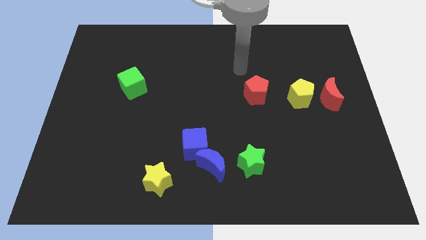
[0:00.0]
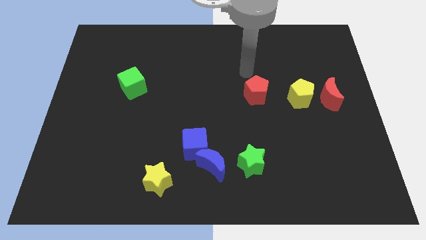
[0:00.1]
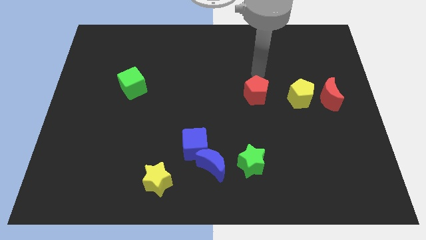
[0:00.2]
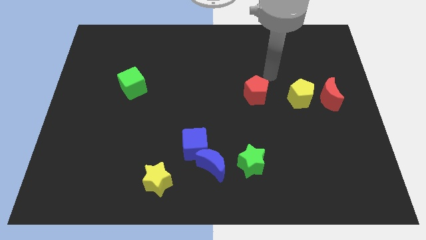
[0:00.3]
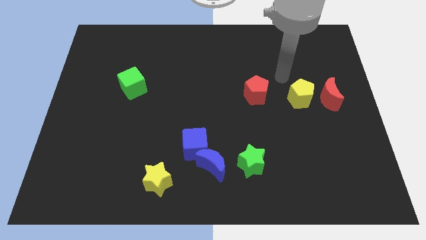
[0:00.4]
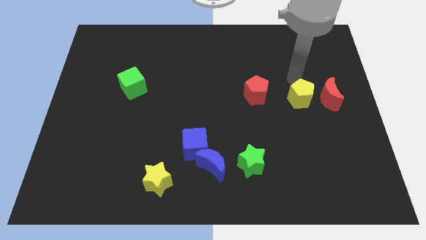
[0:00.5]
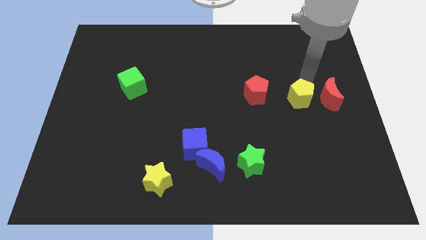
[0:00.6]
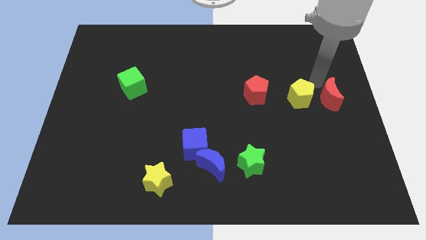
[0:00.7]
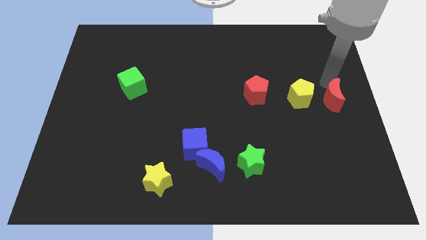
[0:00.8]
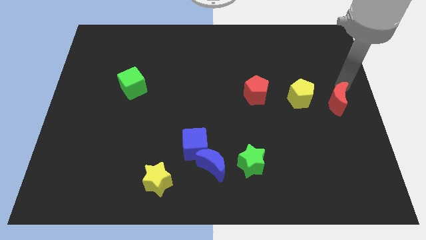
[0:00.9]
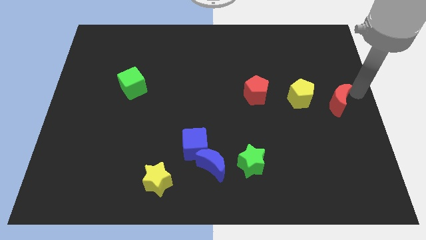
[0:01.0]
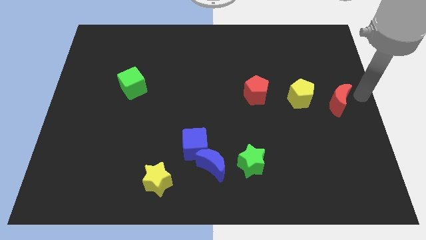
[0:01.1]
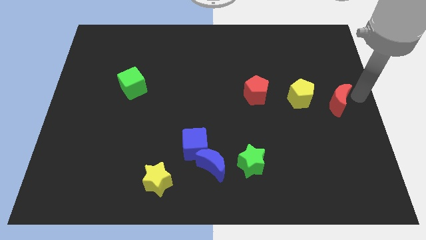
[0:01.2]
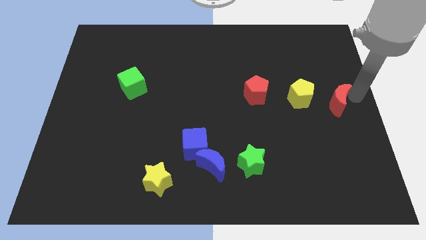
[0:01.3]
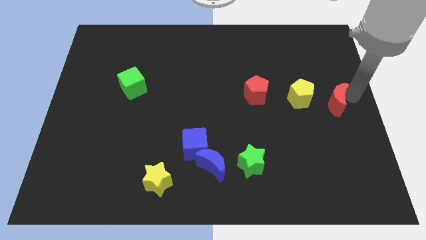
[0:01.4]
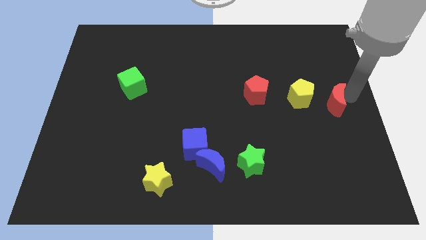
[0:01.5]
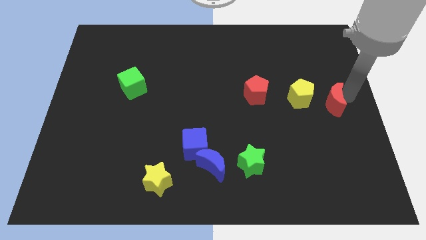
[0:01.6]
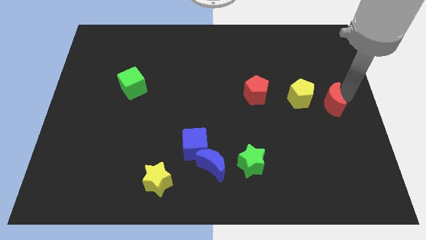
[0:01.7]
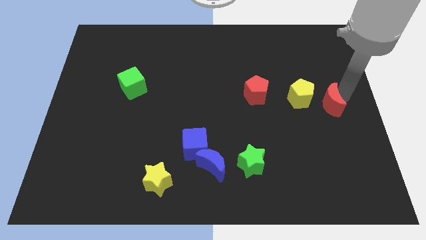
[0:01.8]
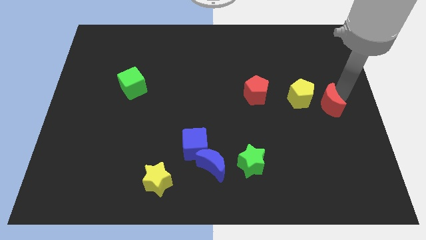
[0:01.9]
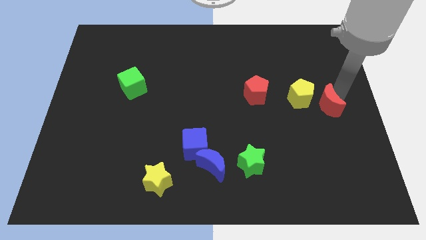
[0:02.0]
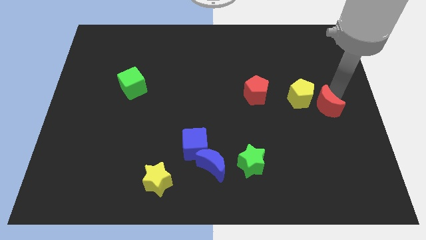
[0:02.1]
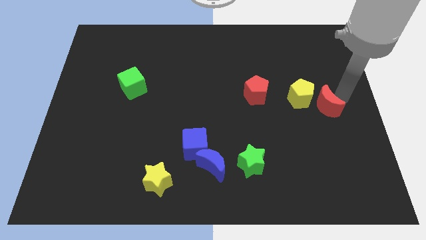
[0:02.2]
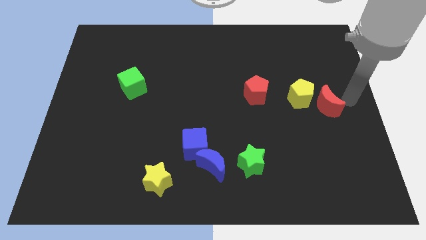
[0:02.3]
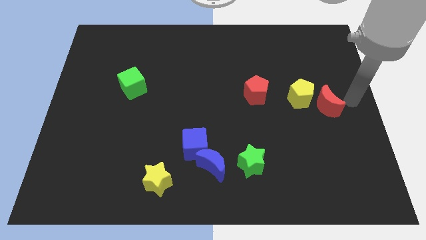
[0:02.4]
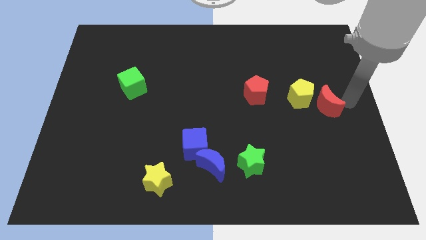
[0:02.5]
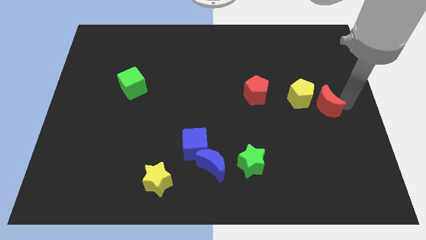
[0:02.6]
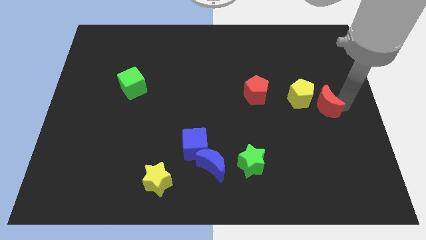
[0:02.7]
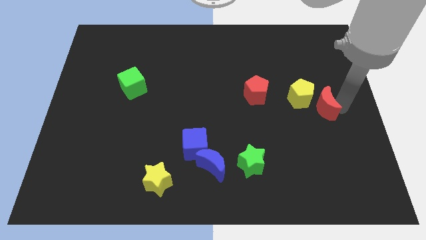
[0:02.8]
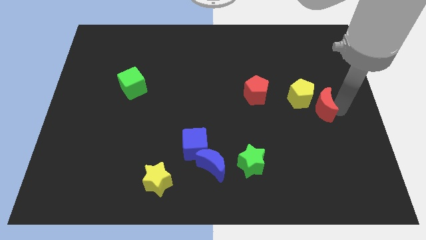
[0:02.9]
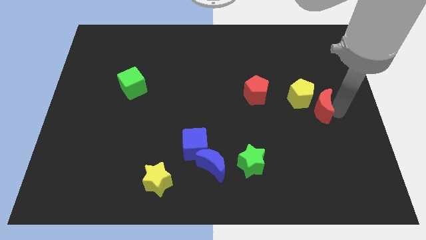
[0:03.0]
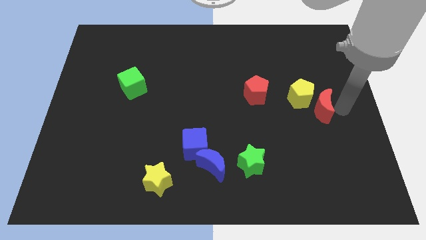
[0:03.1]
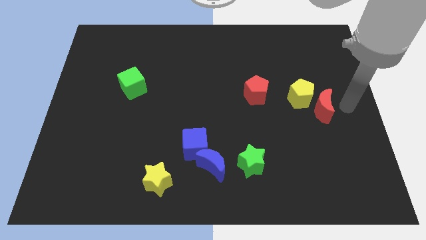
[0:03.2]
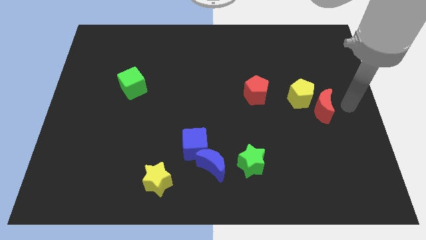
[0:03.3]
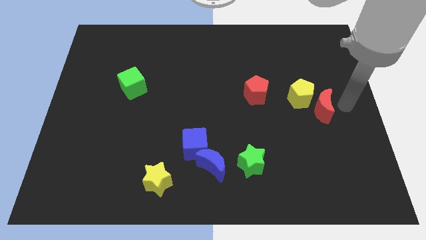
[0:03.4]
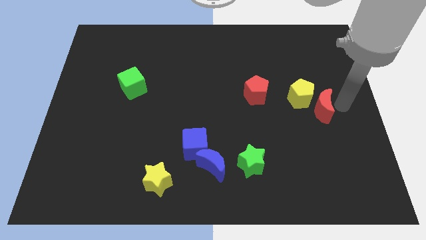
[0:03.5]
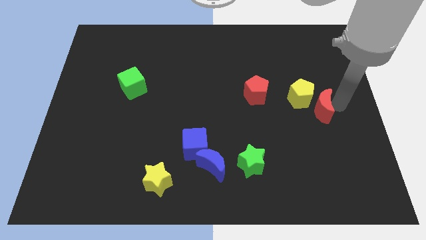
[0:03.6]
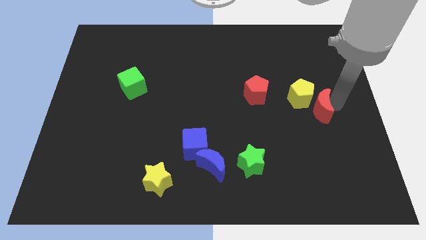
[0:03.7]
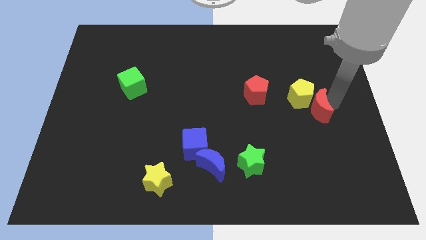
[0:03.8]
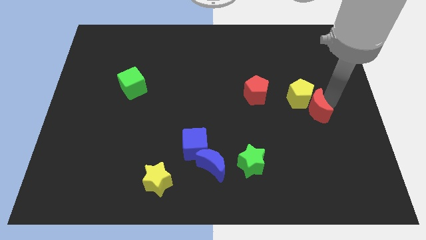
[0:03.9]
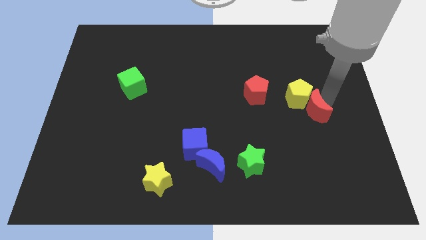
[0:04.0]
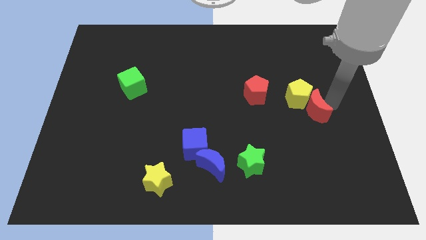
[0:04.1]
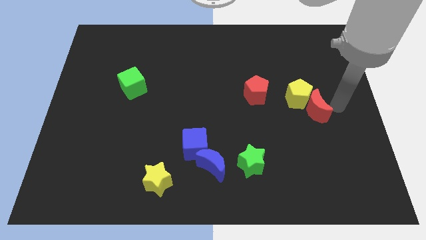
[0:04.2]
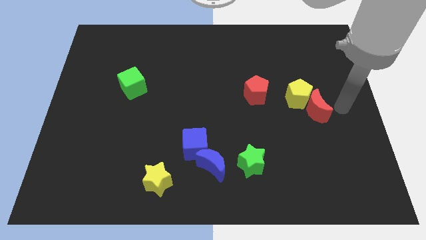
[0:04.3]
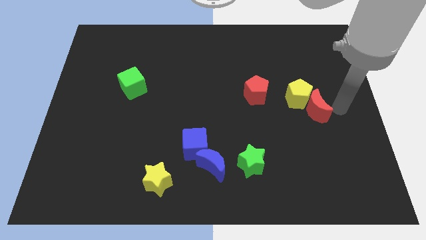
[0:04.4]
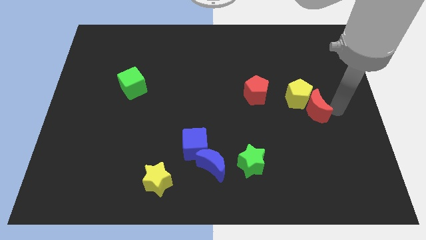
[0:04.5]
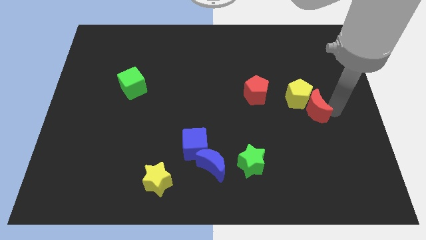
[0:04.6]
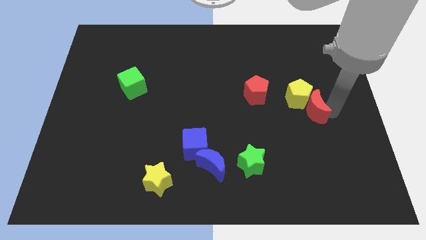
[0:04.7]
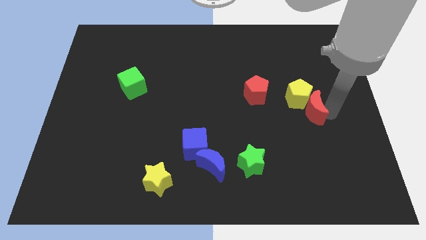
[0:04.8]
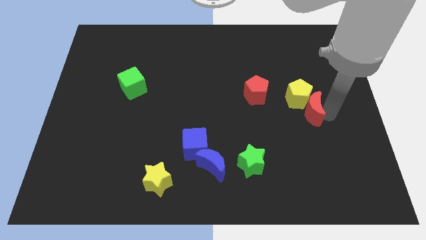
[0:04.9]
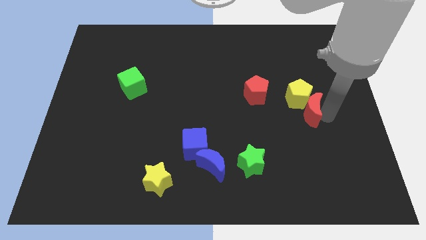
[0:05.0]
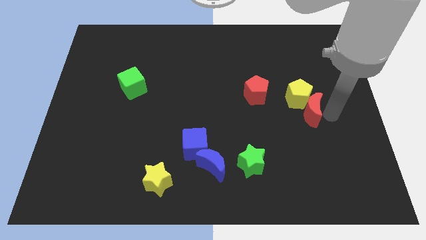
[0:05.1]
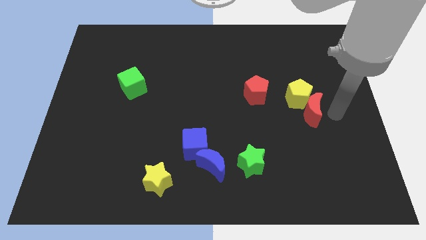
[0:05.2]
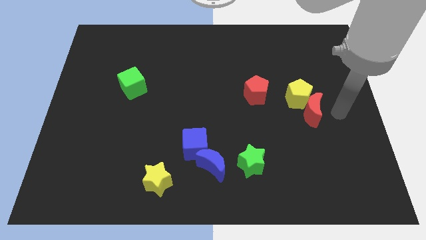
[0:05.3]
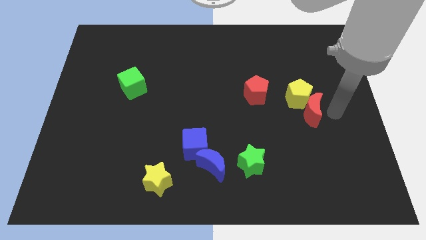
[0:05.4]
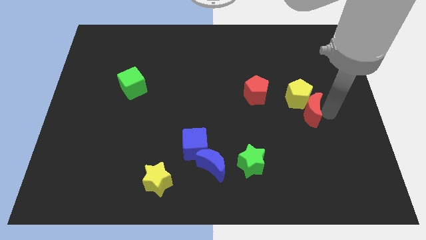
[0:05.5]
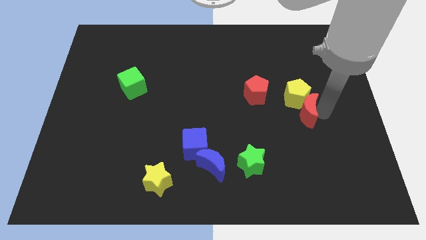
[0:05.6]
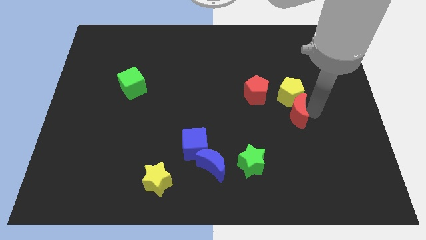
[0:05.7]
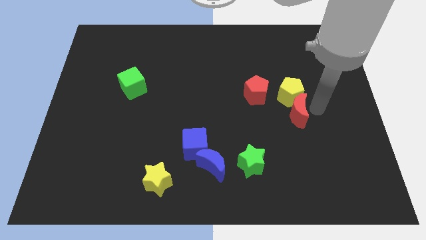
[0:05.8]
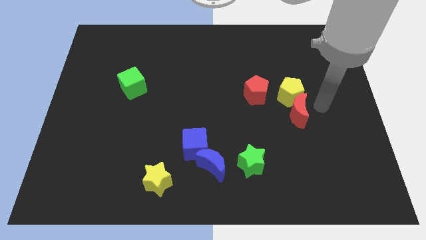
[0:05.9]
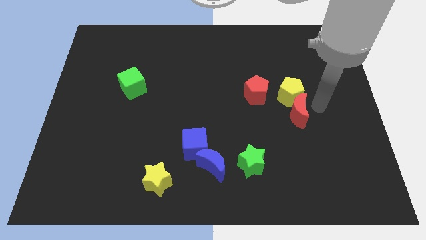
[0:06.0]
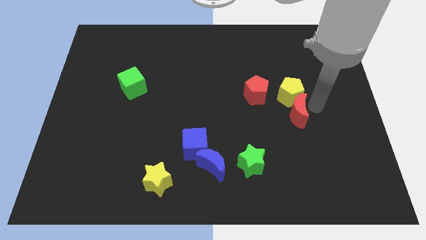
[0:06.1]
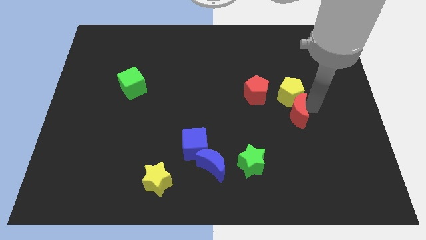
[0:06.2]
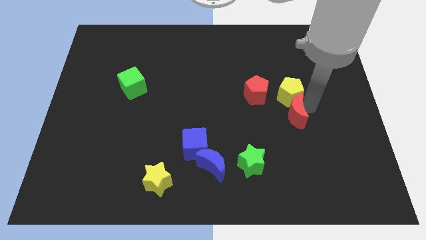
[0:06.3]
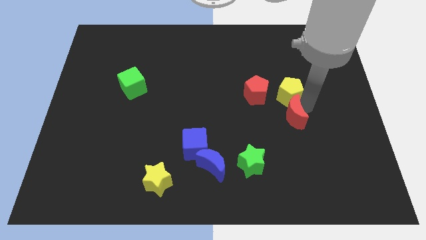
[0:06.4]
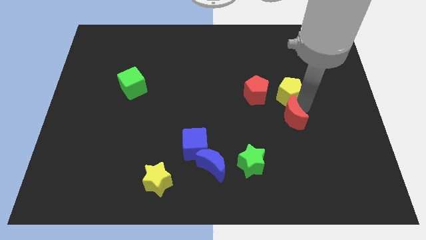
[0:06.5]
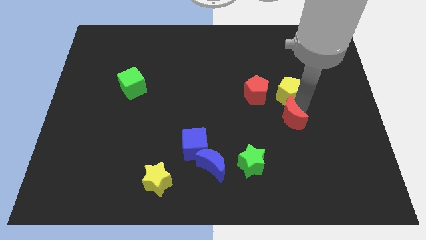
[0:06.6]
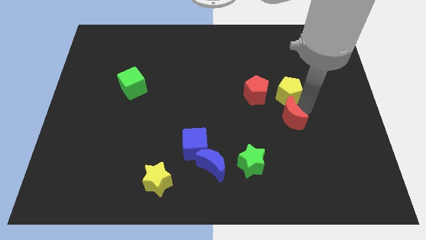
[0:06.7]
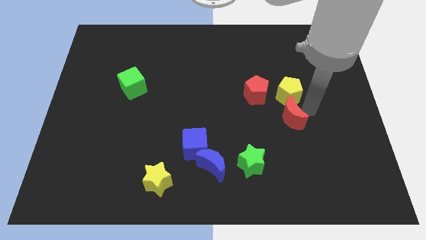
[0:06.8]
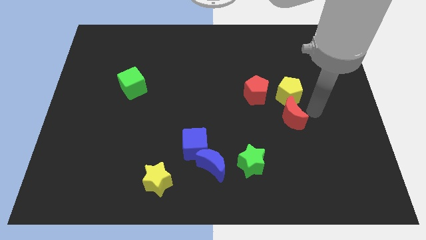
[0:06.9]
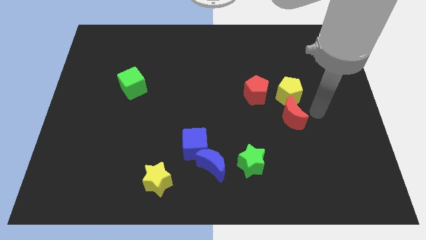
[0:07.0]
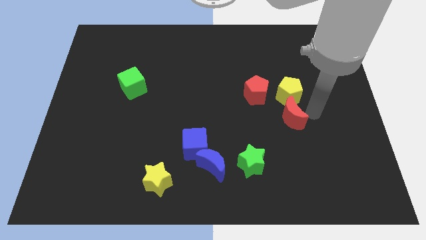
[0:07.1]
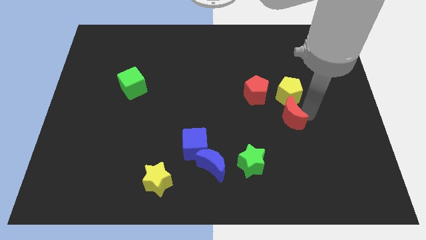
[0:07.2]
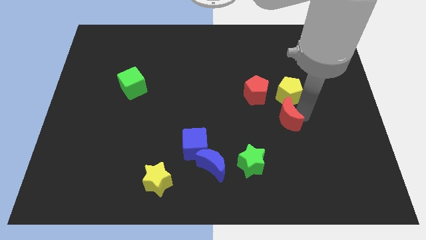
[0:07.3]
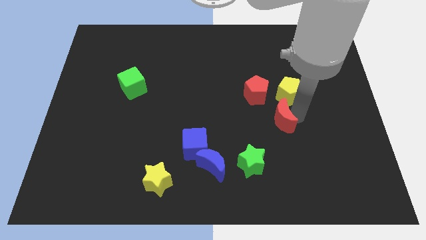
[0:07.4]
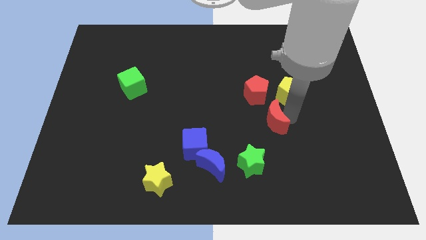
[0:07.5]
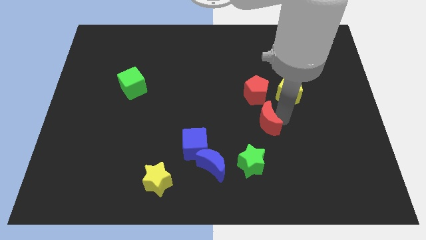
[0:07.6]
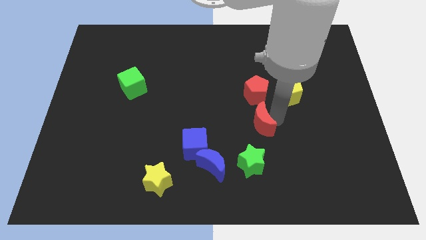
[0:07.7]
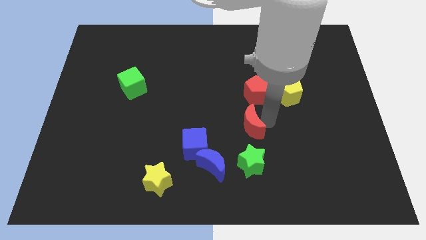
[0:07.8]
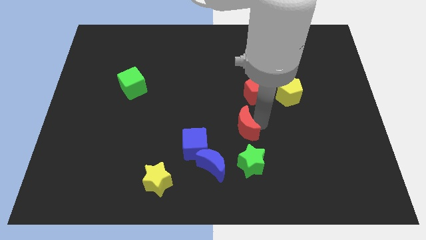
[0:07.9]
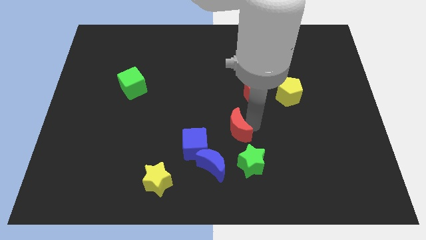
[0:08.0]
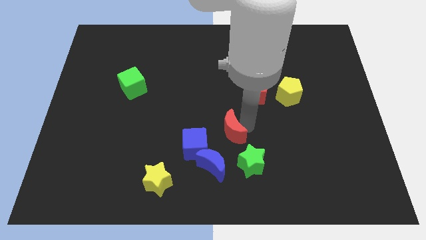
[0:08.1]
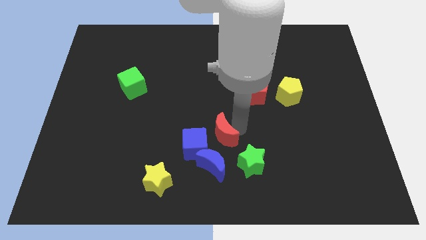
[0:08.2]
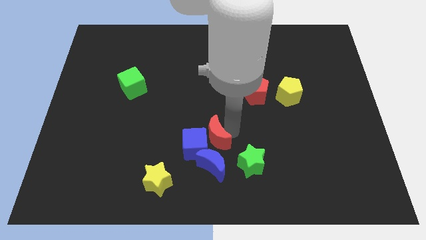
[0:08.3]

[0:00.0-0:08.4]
move the red moon close to the blue cube
